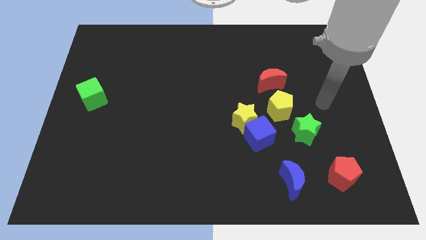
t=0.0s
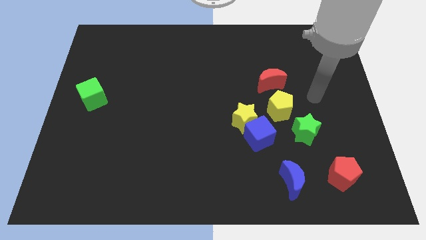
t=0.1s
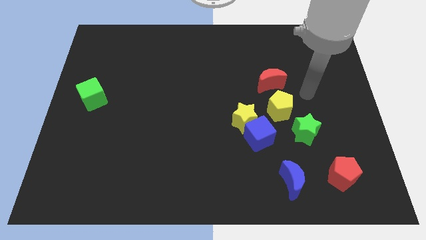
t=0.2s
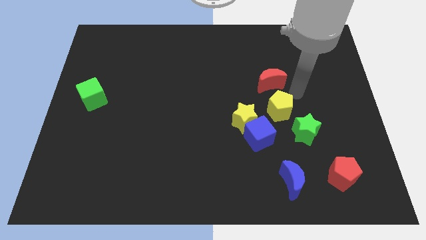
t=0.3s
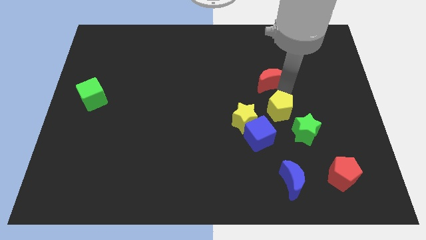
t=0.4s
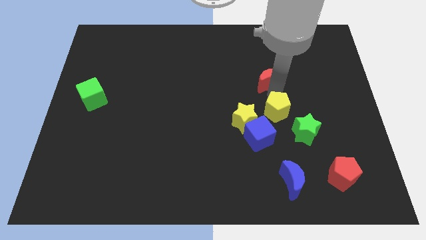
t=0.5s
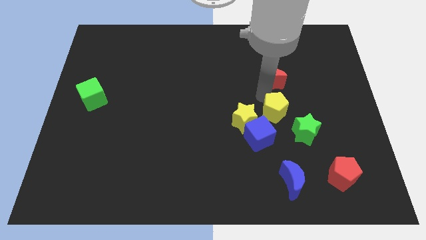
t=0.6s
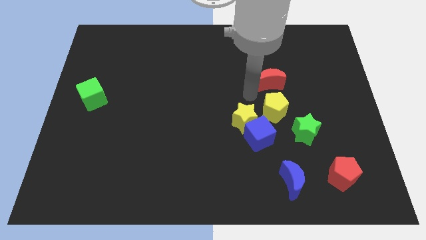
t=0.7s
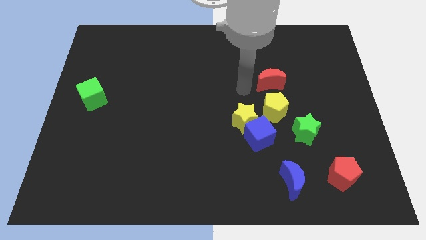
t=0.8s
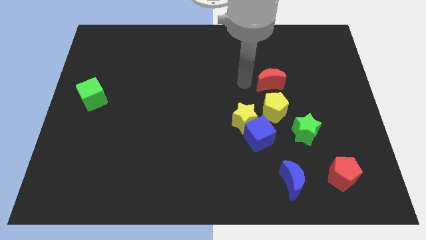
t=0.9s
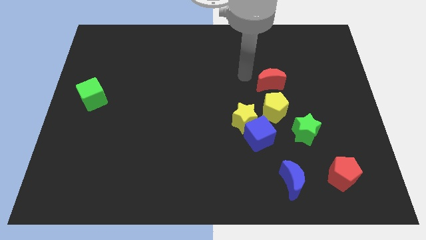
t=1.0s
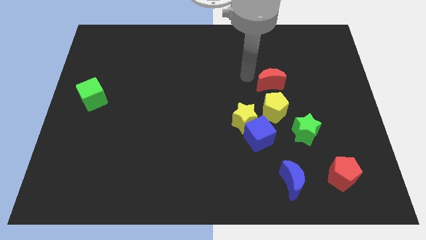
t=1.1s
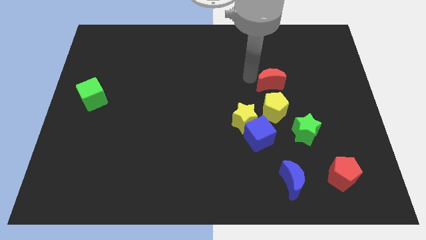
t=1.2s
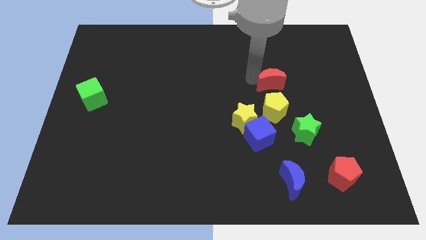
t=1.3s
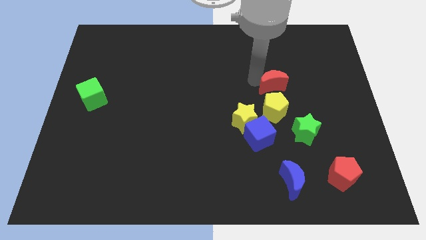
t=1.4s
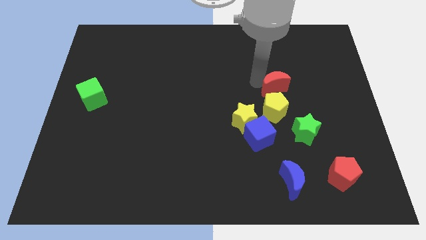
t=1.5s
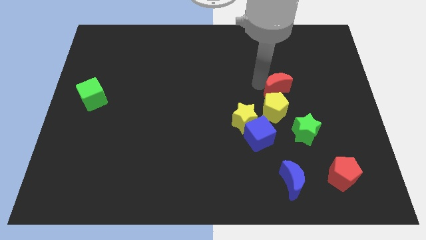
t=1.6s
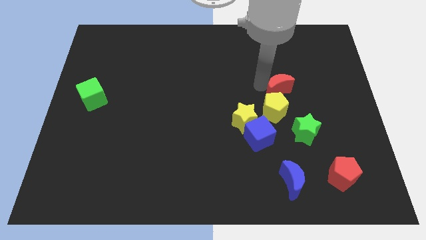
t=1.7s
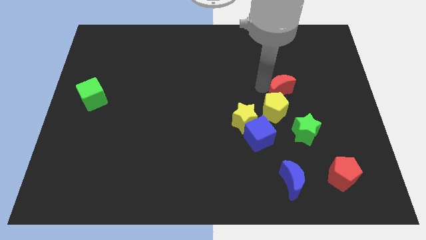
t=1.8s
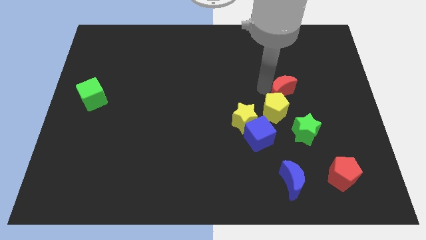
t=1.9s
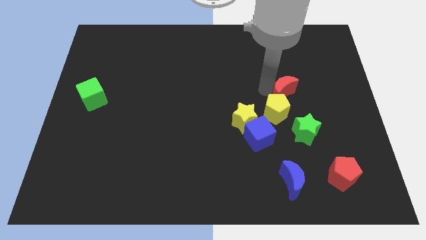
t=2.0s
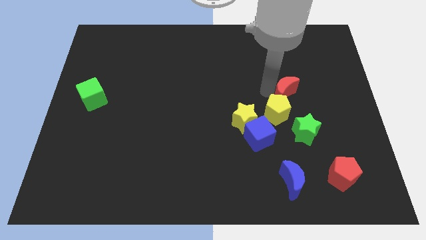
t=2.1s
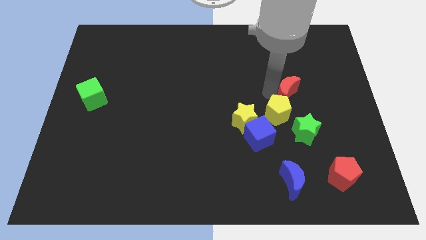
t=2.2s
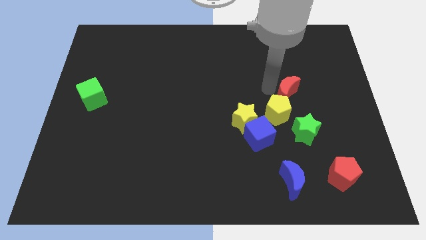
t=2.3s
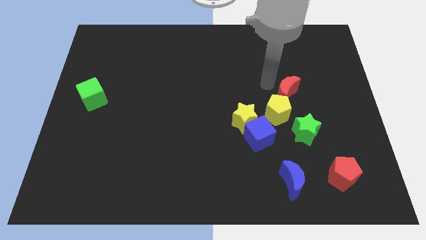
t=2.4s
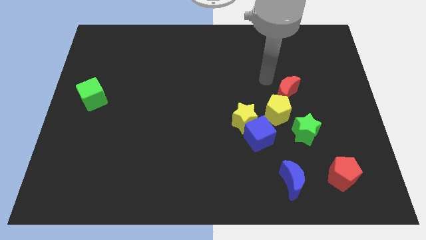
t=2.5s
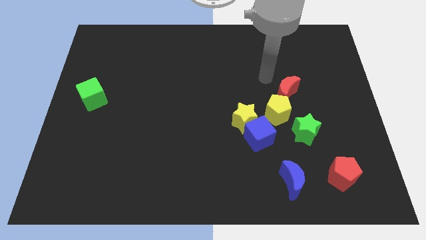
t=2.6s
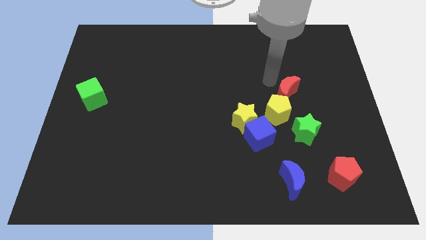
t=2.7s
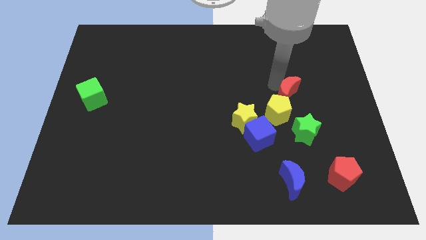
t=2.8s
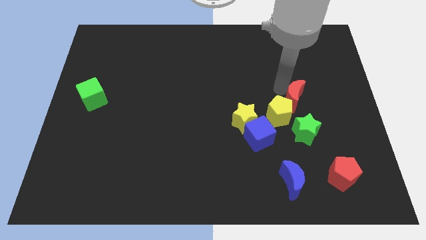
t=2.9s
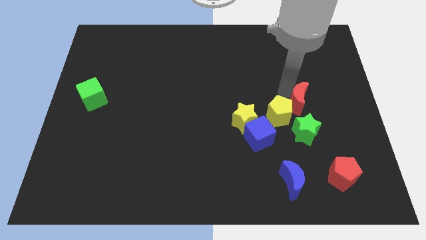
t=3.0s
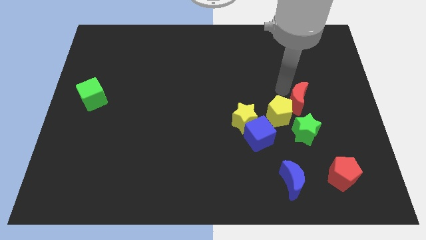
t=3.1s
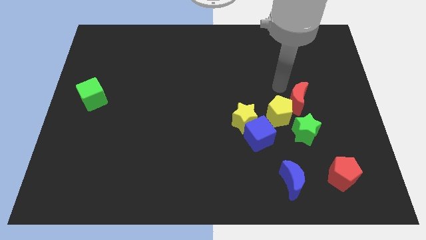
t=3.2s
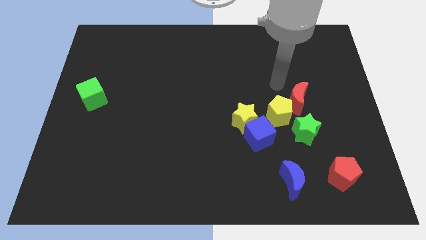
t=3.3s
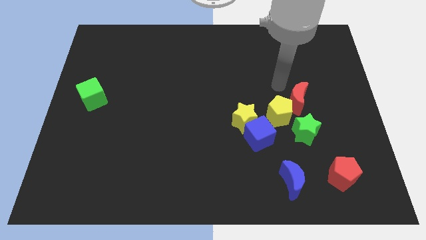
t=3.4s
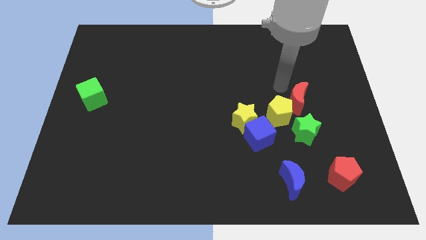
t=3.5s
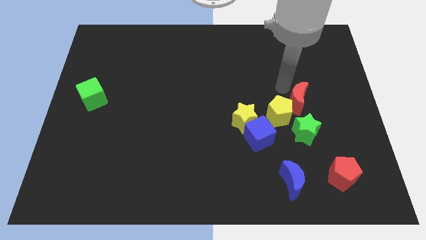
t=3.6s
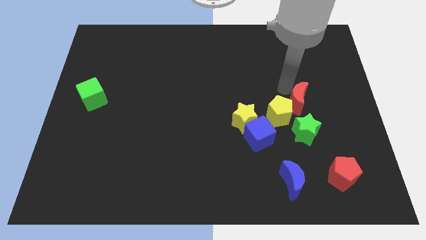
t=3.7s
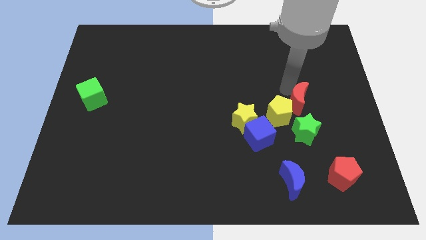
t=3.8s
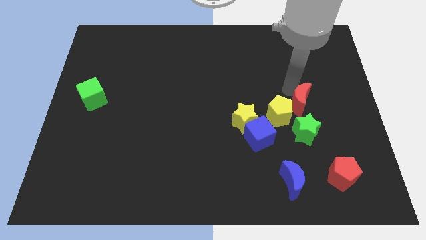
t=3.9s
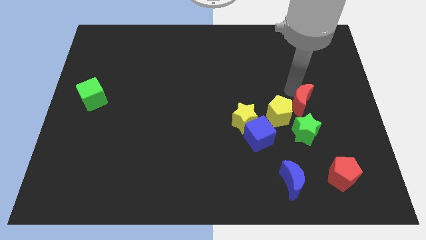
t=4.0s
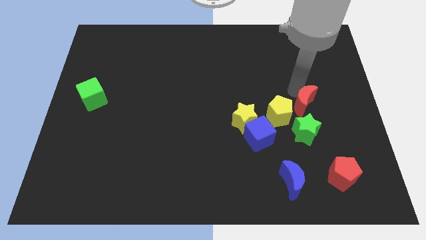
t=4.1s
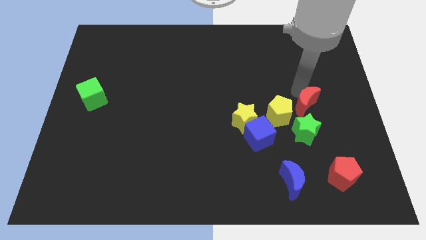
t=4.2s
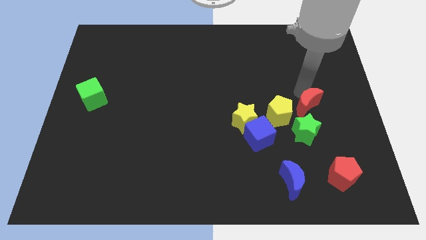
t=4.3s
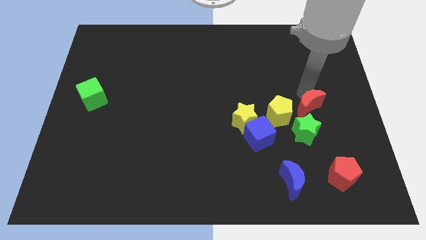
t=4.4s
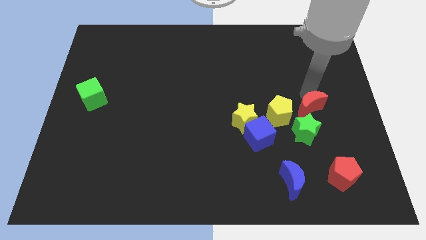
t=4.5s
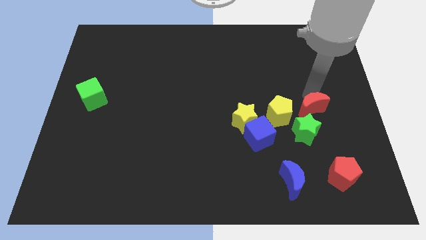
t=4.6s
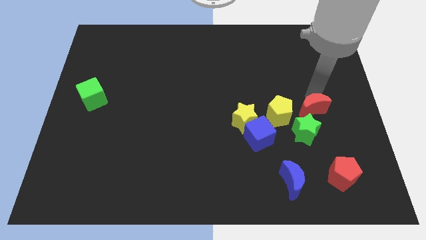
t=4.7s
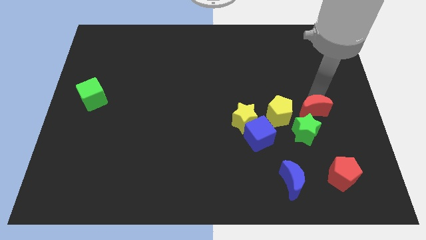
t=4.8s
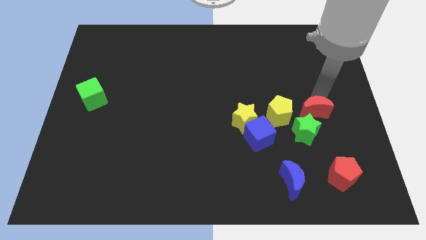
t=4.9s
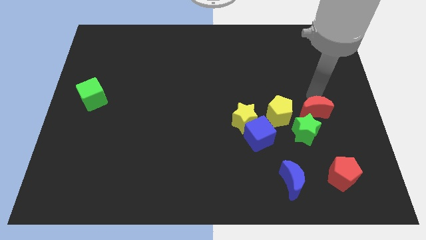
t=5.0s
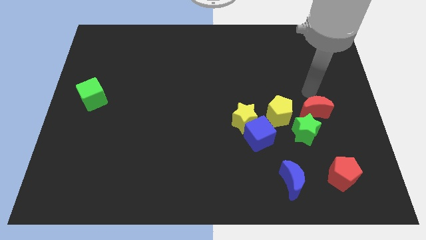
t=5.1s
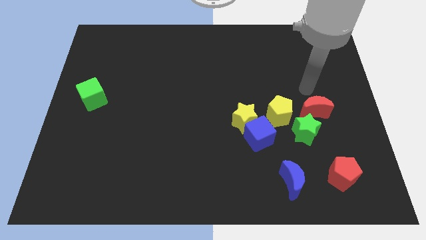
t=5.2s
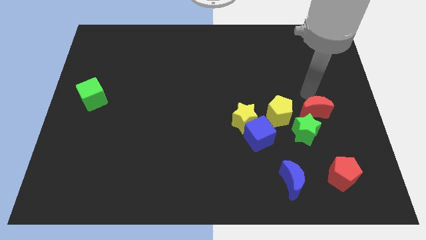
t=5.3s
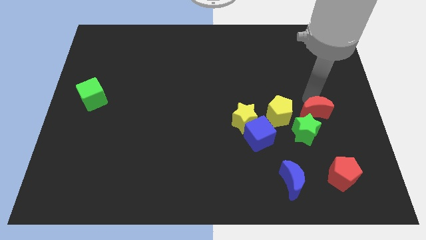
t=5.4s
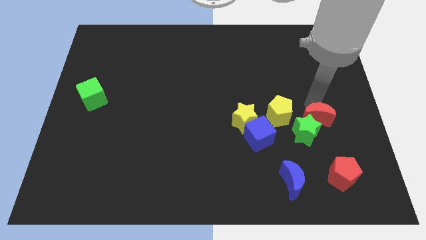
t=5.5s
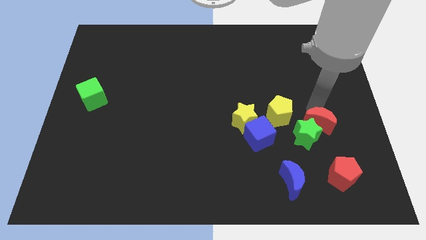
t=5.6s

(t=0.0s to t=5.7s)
push the red moon a little bit down

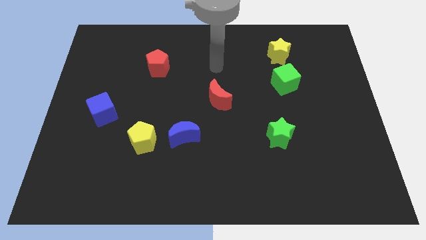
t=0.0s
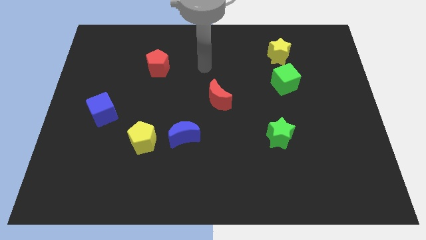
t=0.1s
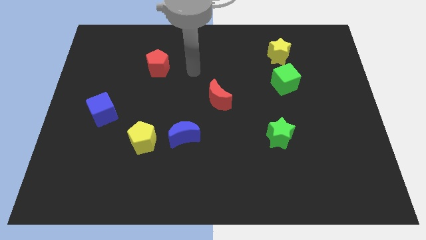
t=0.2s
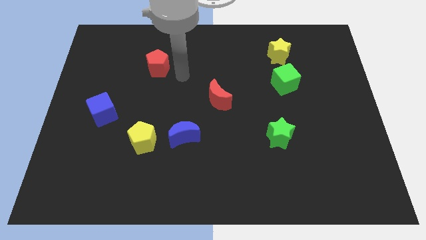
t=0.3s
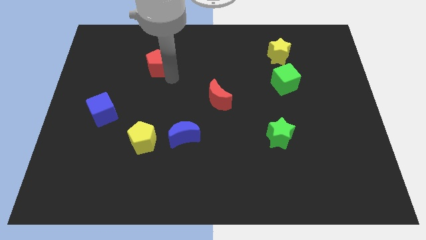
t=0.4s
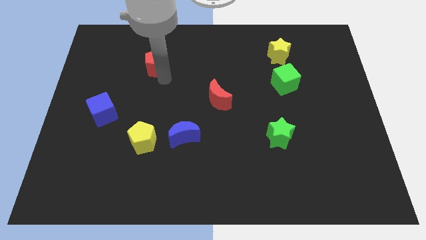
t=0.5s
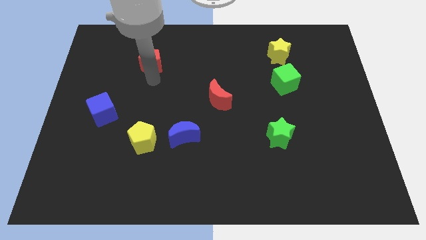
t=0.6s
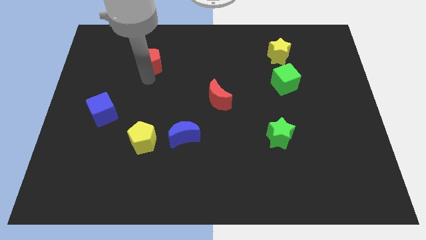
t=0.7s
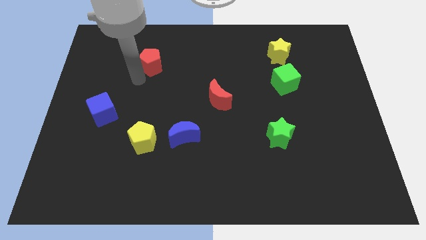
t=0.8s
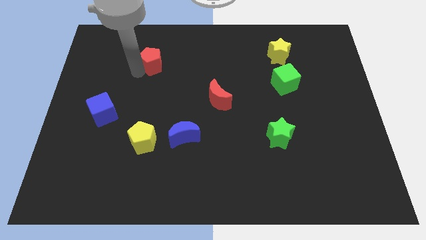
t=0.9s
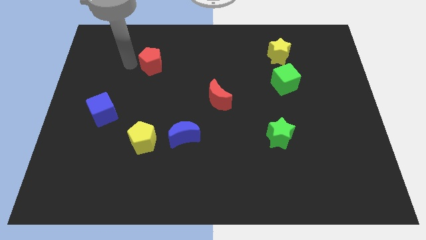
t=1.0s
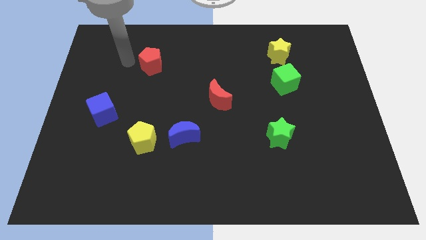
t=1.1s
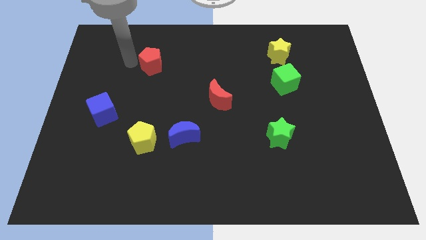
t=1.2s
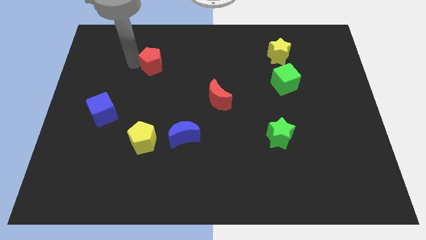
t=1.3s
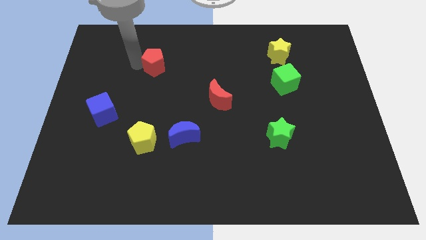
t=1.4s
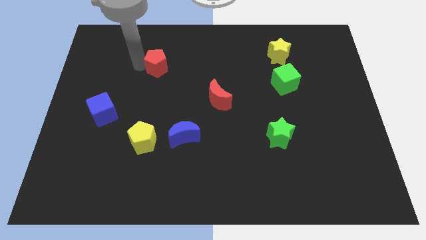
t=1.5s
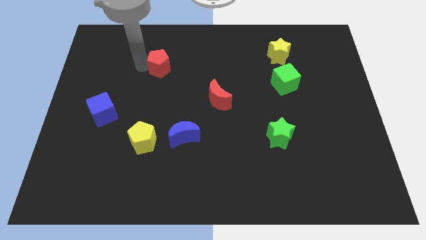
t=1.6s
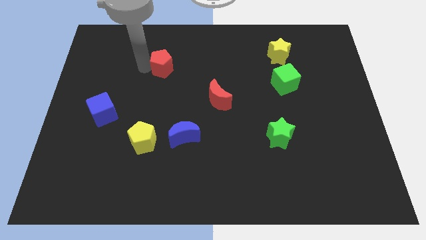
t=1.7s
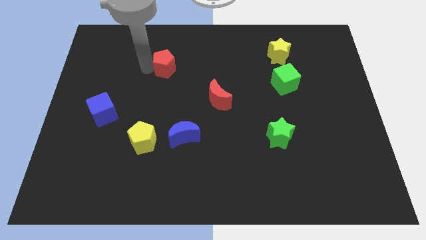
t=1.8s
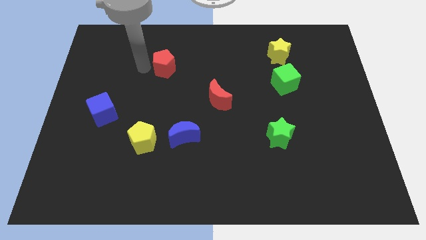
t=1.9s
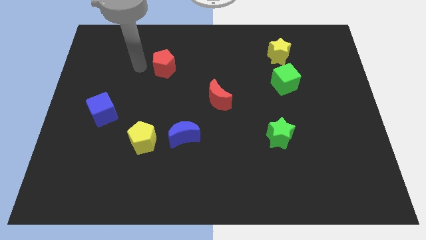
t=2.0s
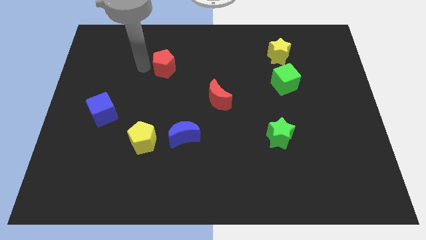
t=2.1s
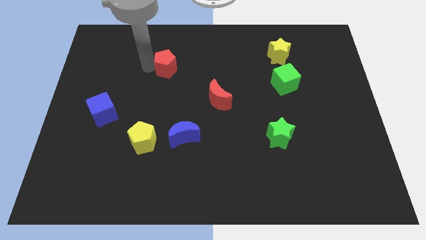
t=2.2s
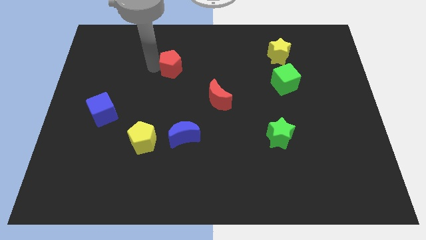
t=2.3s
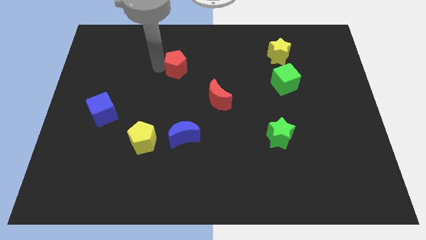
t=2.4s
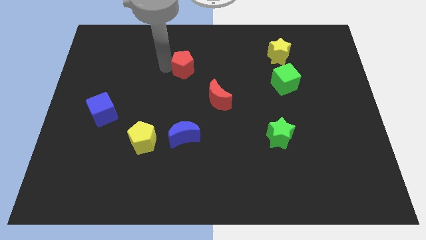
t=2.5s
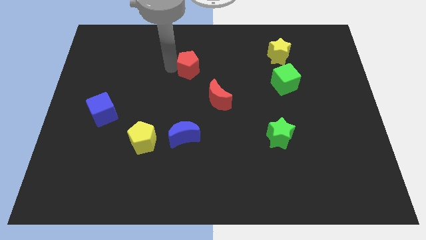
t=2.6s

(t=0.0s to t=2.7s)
slightly move the red pentagon to the right
